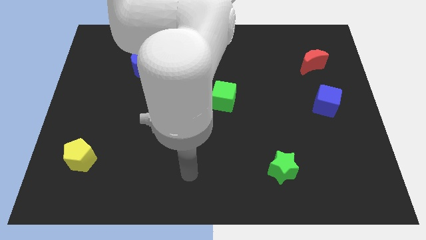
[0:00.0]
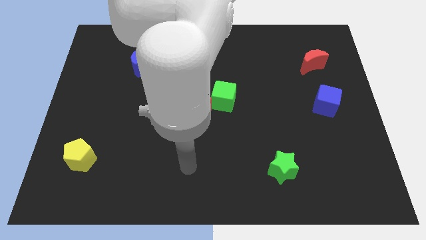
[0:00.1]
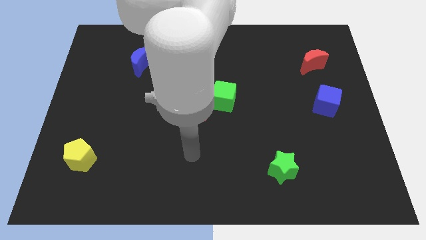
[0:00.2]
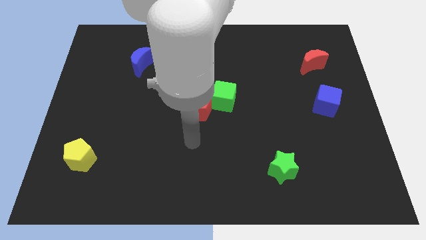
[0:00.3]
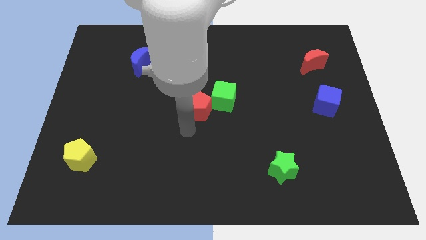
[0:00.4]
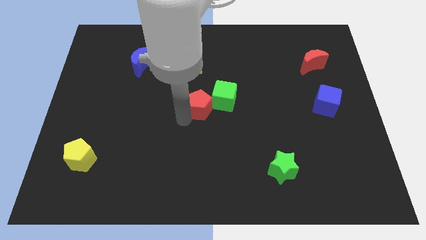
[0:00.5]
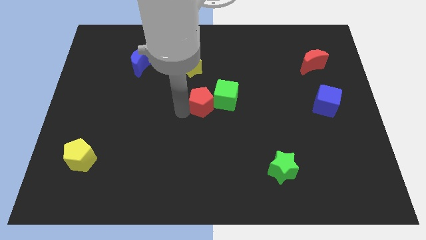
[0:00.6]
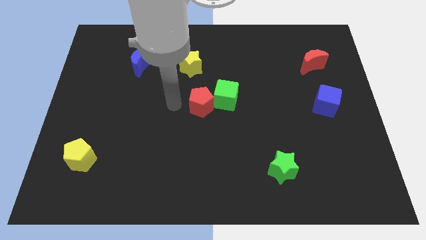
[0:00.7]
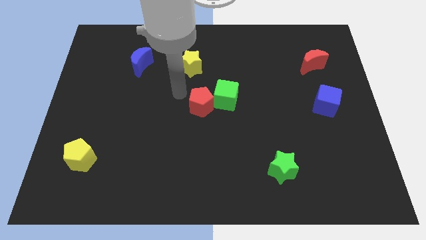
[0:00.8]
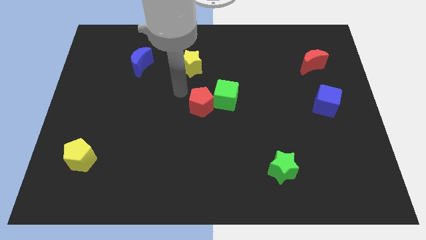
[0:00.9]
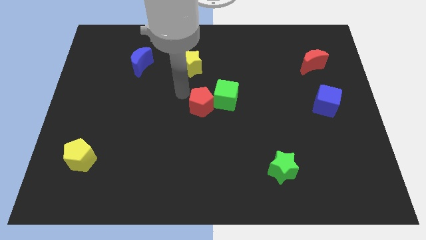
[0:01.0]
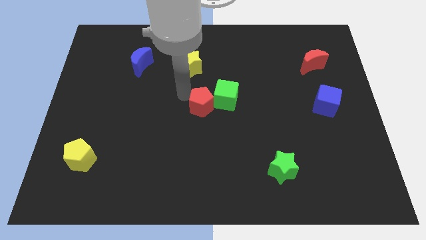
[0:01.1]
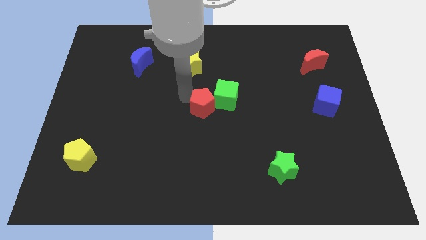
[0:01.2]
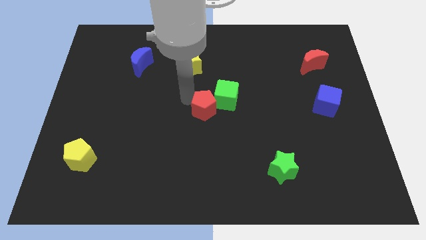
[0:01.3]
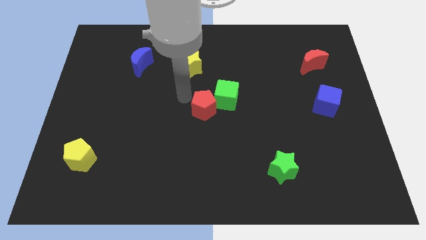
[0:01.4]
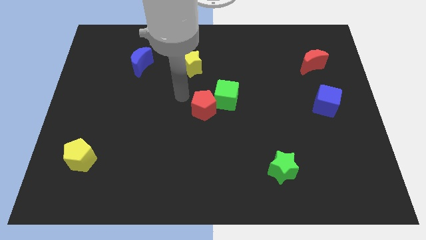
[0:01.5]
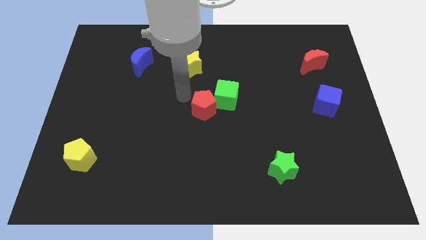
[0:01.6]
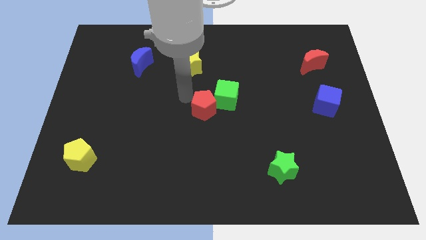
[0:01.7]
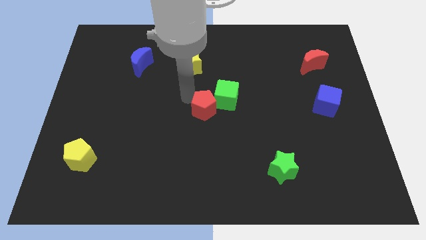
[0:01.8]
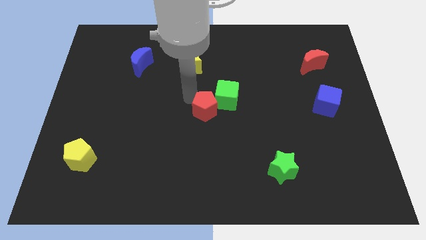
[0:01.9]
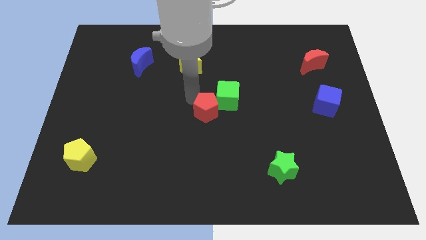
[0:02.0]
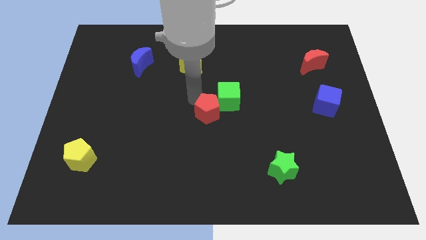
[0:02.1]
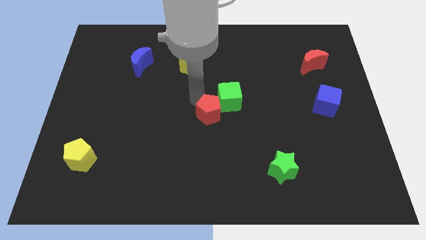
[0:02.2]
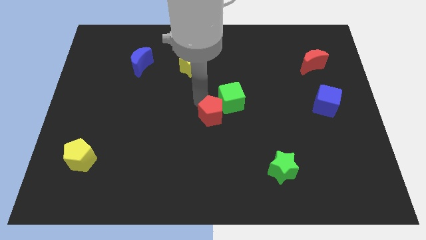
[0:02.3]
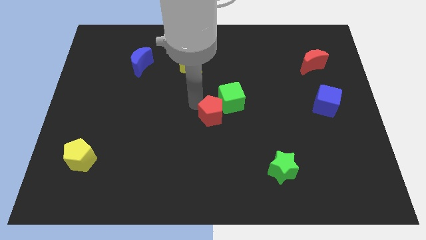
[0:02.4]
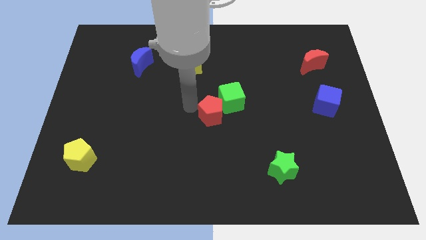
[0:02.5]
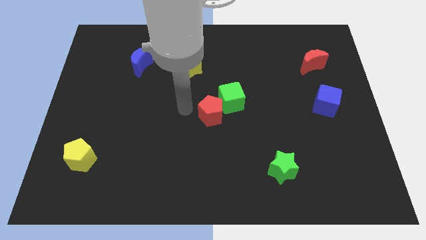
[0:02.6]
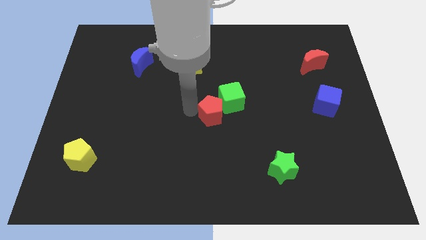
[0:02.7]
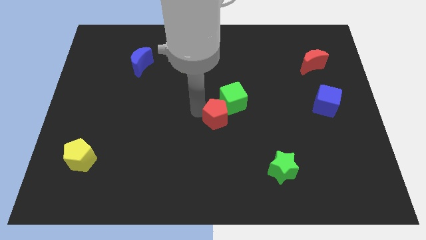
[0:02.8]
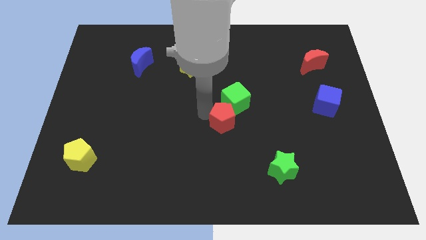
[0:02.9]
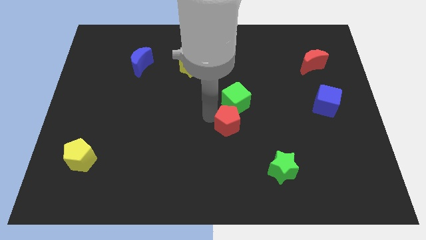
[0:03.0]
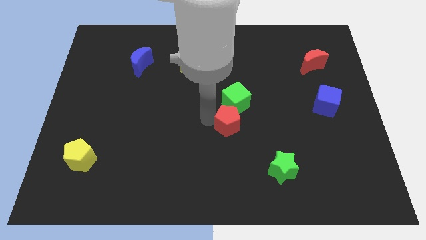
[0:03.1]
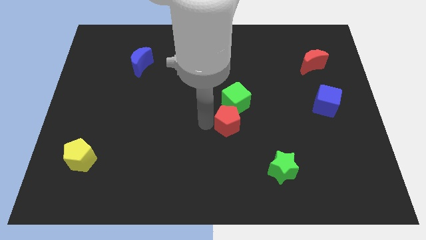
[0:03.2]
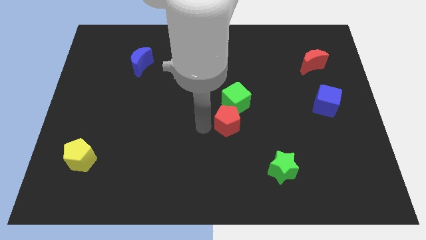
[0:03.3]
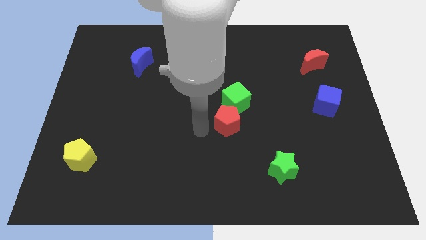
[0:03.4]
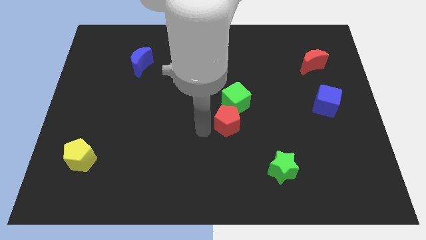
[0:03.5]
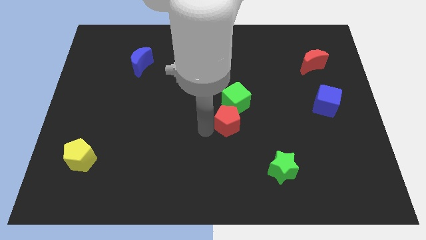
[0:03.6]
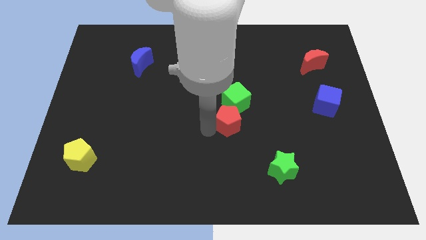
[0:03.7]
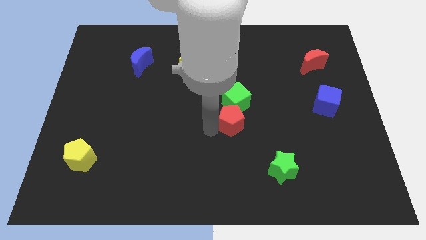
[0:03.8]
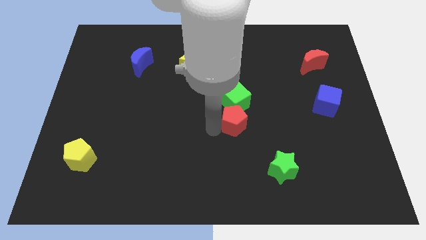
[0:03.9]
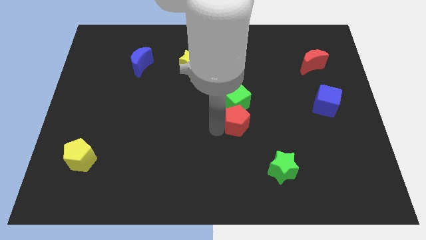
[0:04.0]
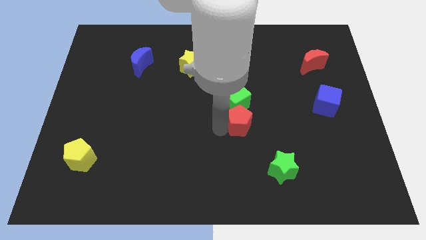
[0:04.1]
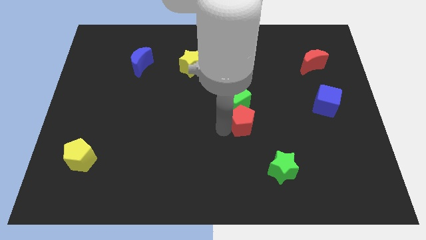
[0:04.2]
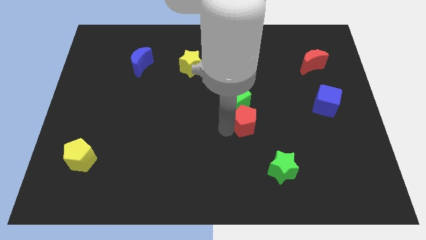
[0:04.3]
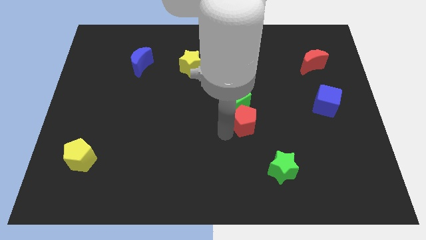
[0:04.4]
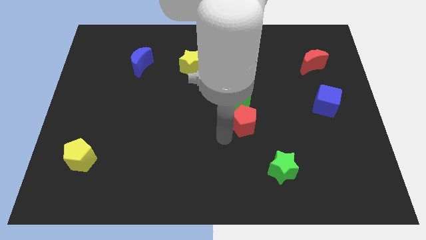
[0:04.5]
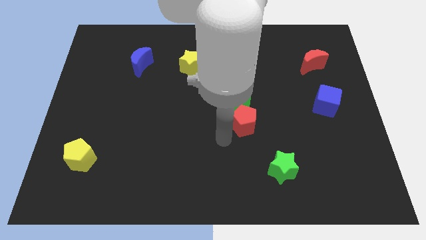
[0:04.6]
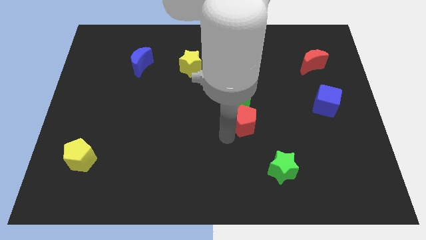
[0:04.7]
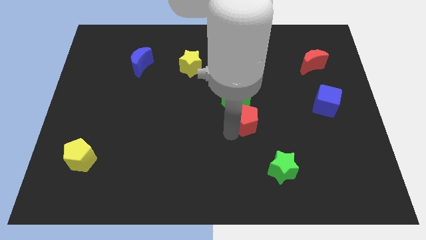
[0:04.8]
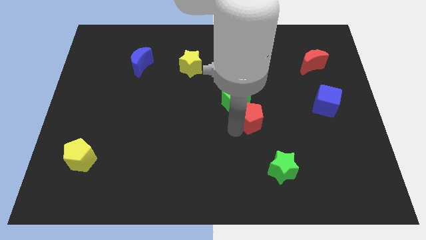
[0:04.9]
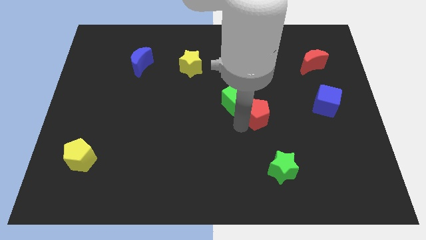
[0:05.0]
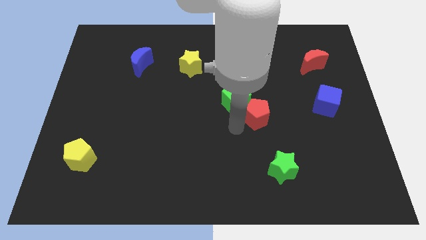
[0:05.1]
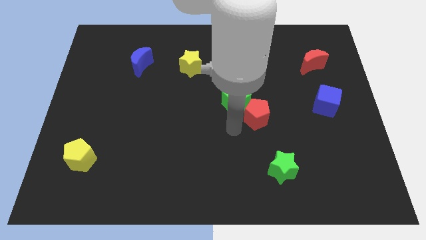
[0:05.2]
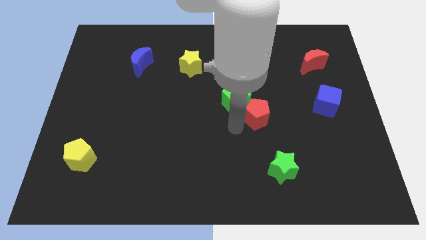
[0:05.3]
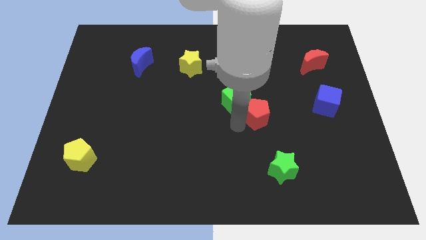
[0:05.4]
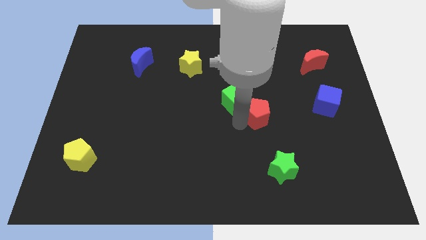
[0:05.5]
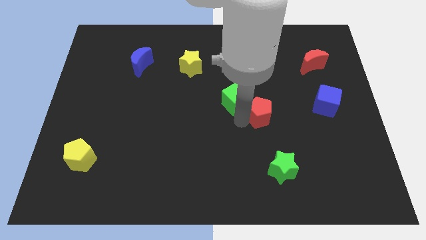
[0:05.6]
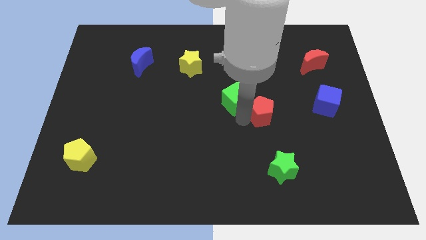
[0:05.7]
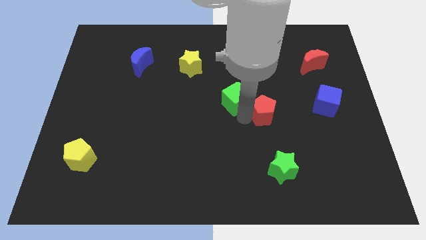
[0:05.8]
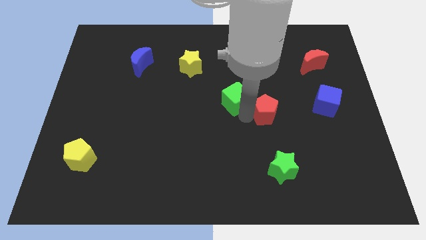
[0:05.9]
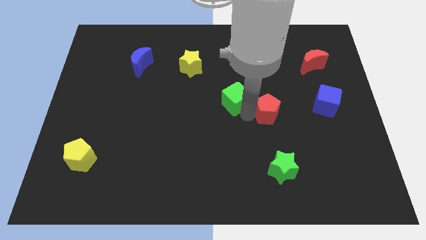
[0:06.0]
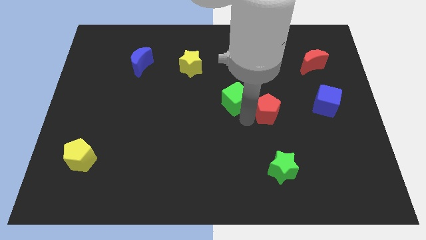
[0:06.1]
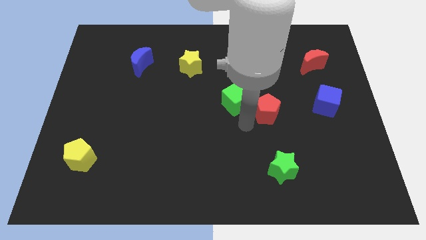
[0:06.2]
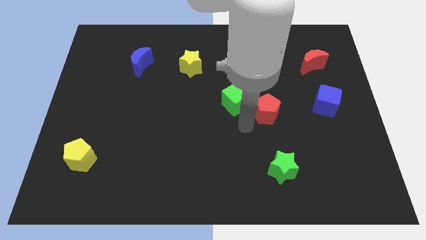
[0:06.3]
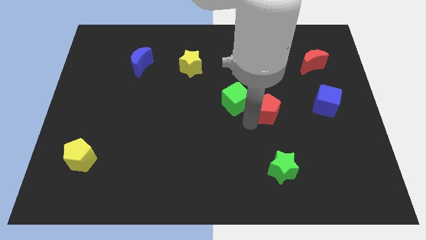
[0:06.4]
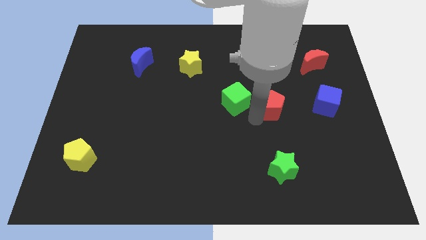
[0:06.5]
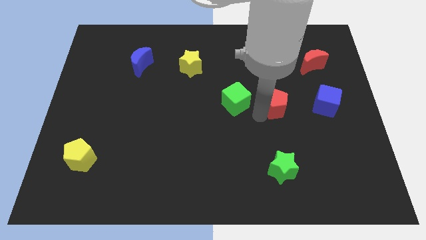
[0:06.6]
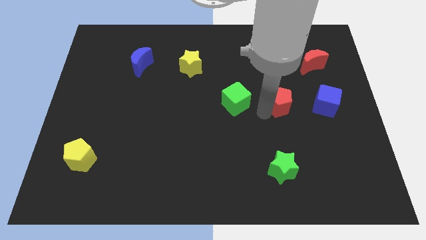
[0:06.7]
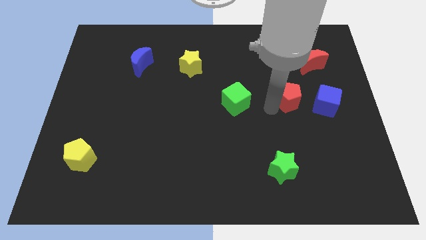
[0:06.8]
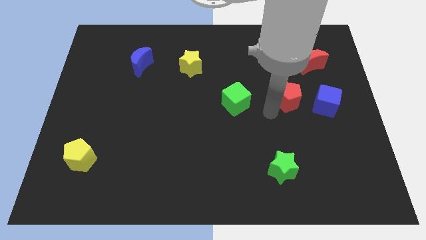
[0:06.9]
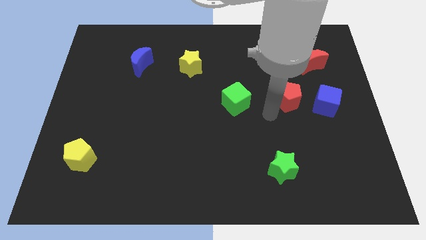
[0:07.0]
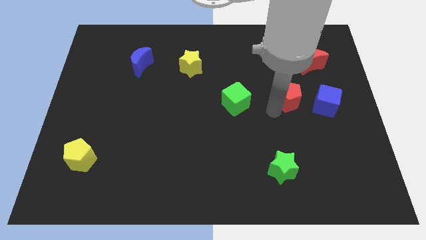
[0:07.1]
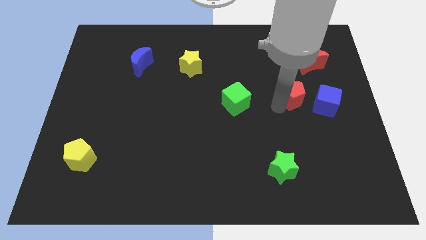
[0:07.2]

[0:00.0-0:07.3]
push the red pentagon to the top left side of the blue cube

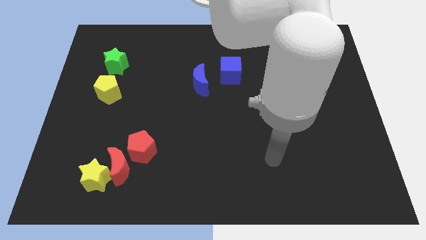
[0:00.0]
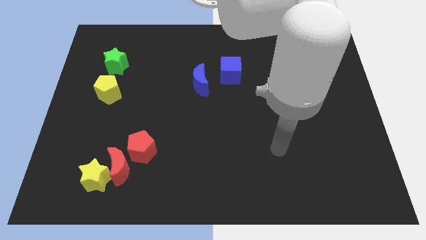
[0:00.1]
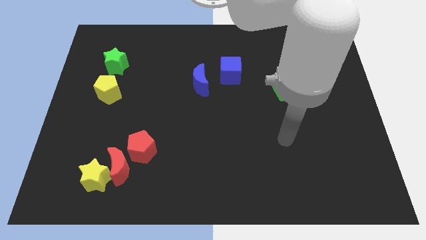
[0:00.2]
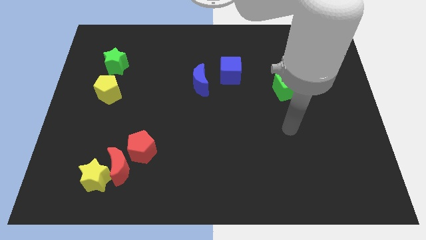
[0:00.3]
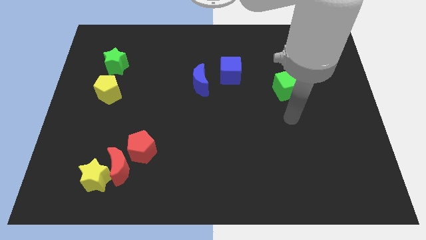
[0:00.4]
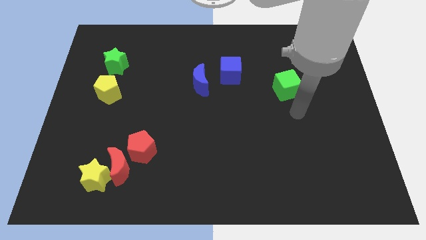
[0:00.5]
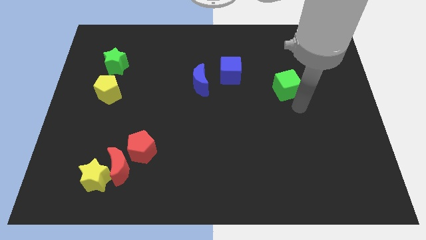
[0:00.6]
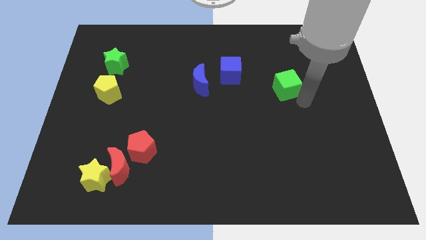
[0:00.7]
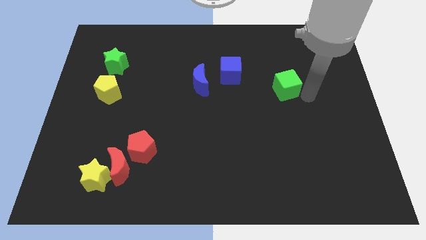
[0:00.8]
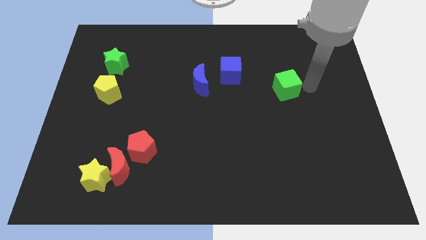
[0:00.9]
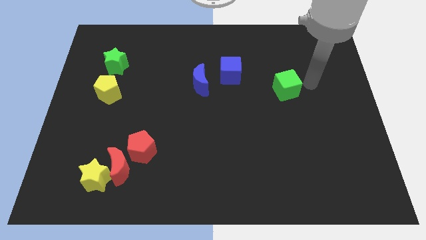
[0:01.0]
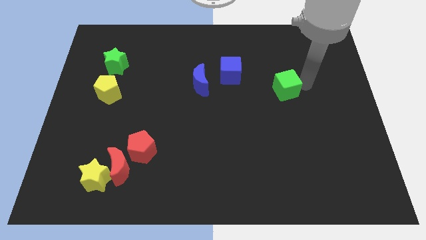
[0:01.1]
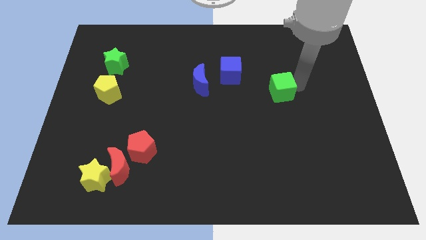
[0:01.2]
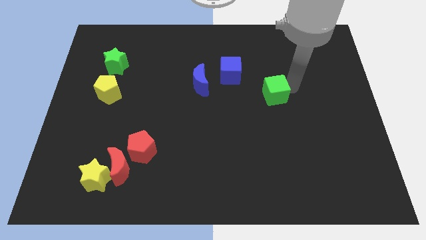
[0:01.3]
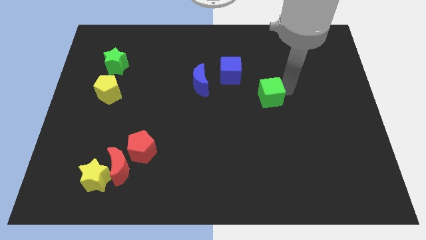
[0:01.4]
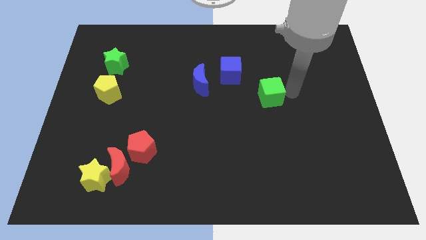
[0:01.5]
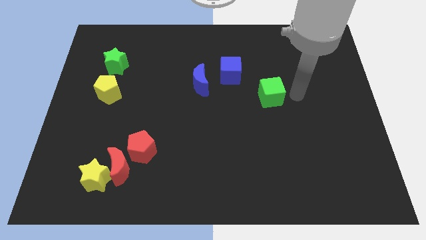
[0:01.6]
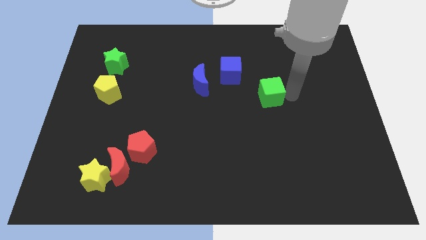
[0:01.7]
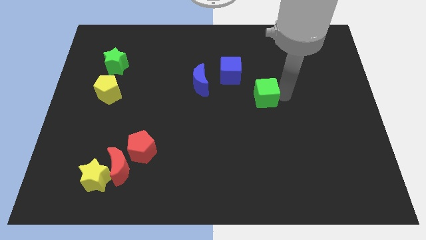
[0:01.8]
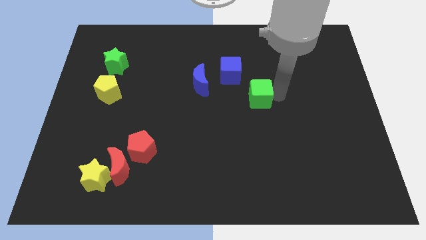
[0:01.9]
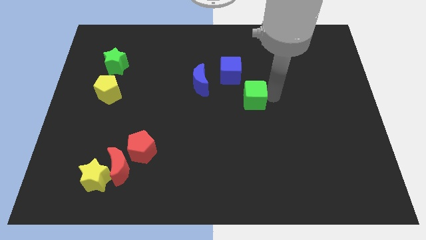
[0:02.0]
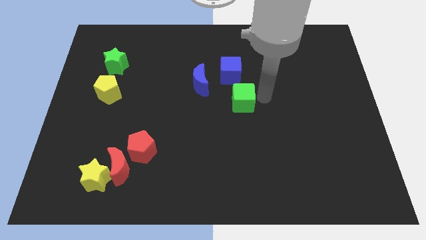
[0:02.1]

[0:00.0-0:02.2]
push the green cube diagonally down and to the right of the blue moon
